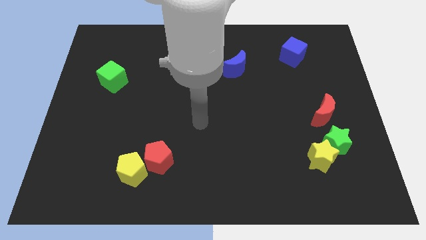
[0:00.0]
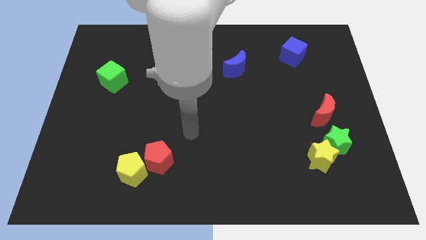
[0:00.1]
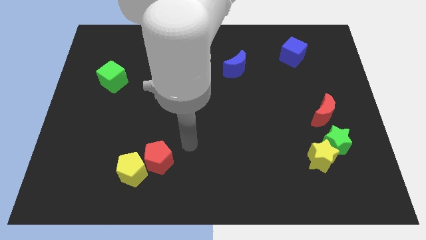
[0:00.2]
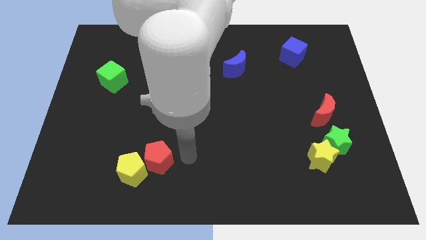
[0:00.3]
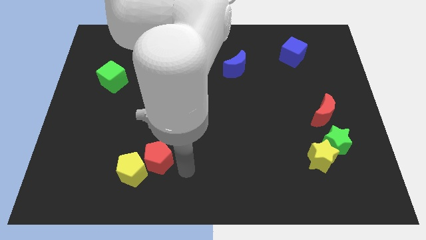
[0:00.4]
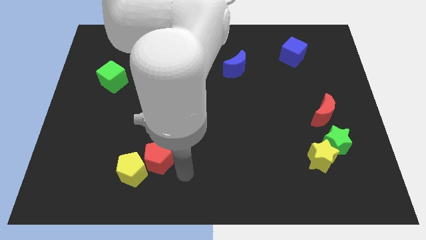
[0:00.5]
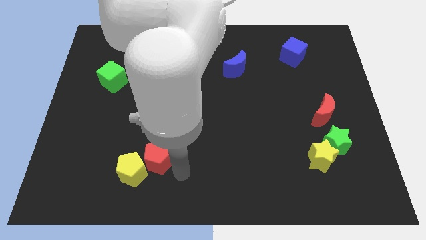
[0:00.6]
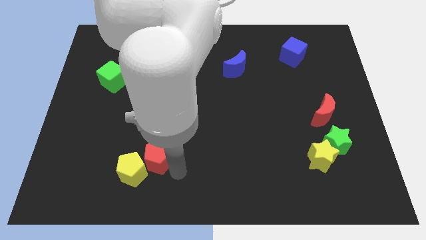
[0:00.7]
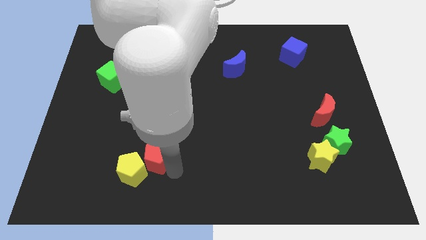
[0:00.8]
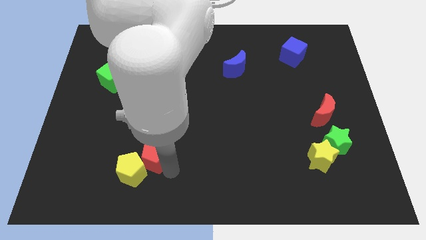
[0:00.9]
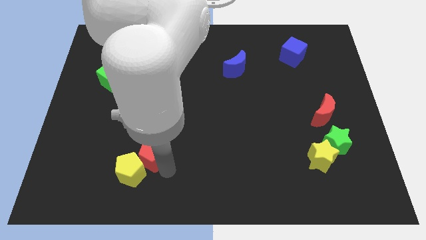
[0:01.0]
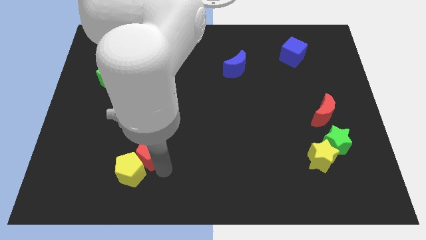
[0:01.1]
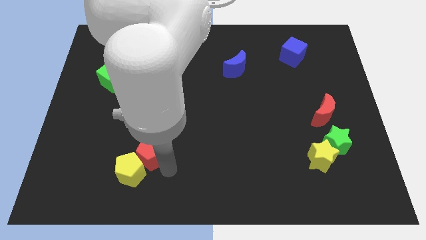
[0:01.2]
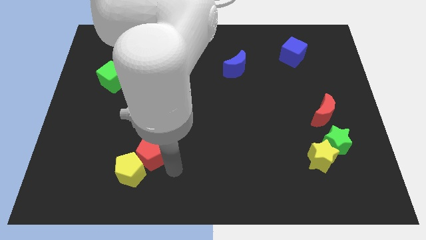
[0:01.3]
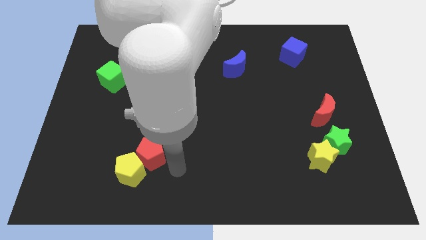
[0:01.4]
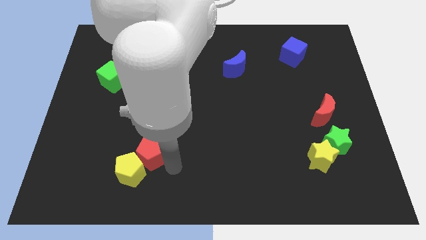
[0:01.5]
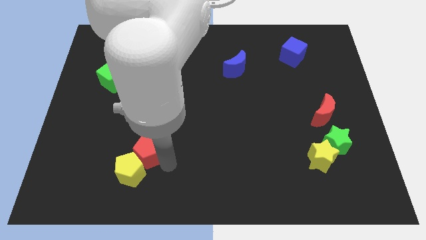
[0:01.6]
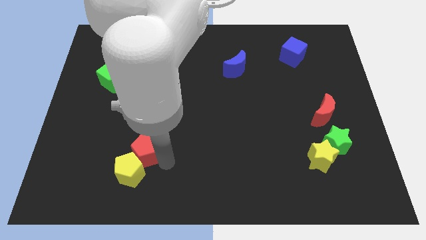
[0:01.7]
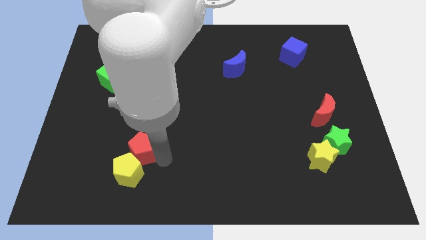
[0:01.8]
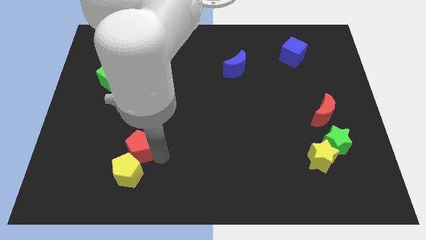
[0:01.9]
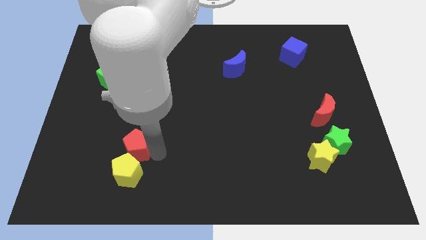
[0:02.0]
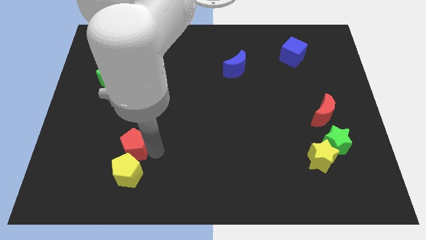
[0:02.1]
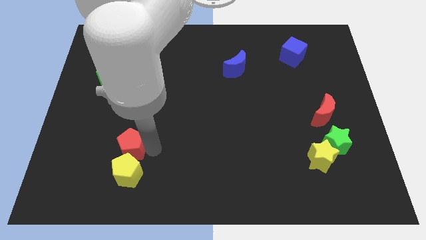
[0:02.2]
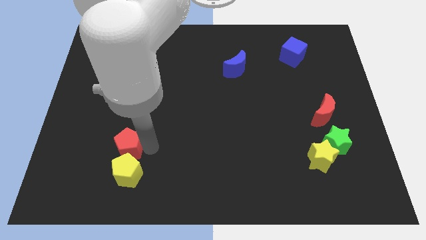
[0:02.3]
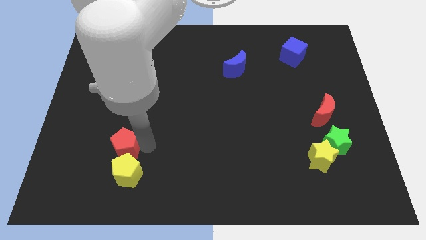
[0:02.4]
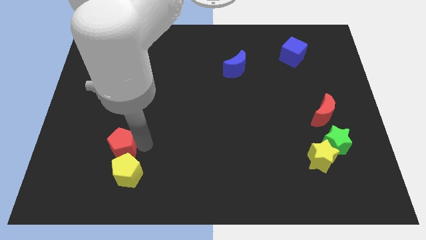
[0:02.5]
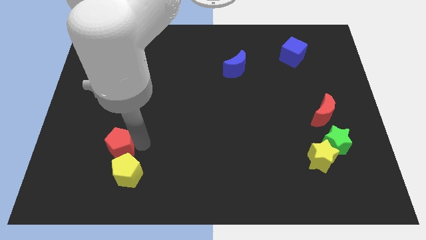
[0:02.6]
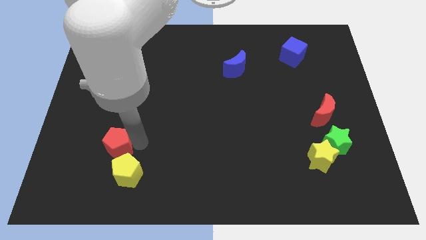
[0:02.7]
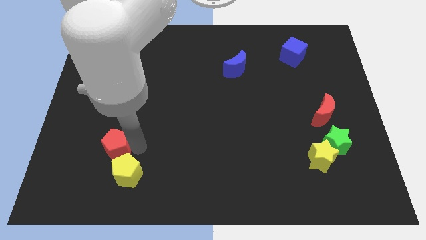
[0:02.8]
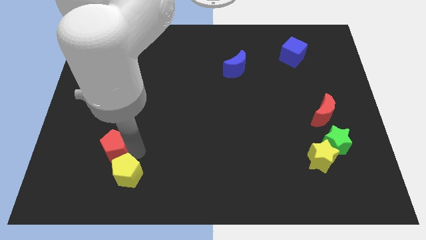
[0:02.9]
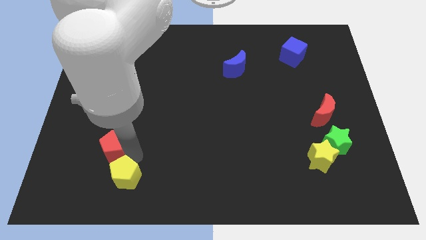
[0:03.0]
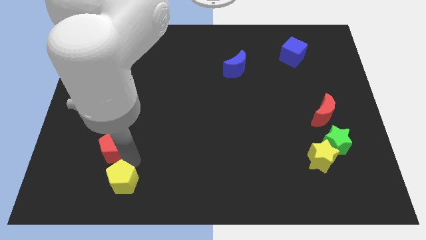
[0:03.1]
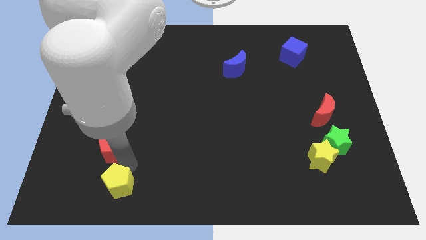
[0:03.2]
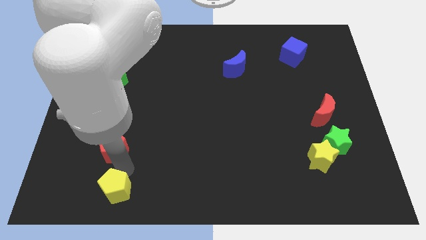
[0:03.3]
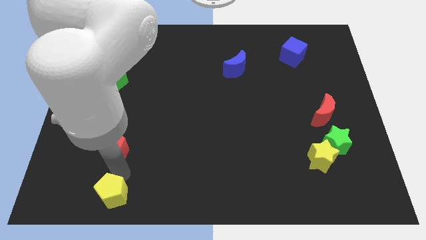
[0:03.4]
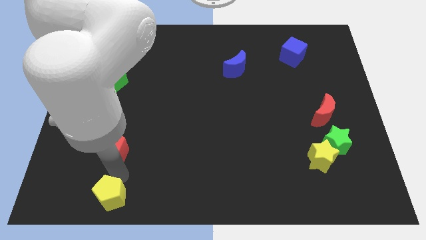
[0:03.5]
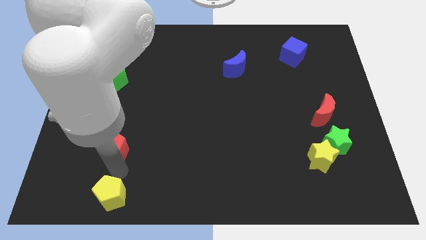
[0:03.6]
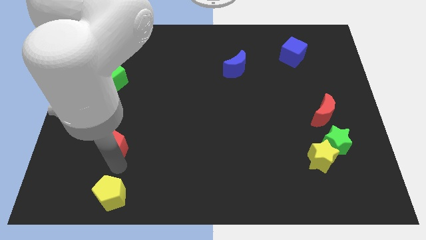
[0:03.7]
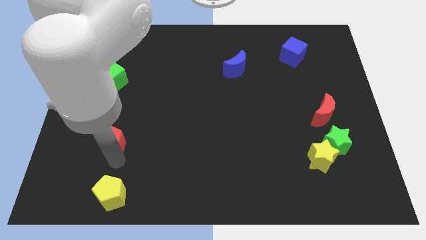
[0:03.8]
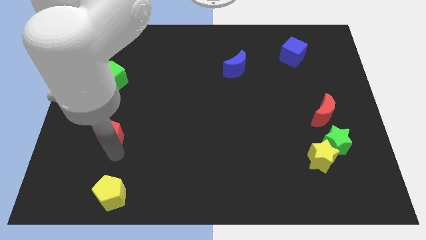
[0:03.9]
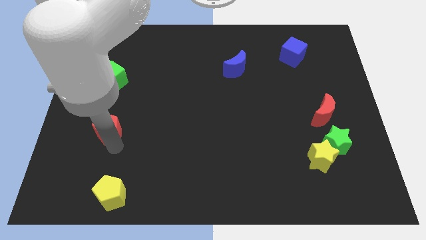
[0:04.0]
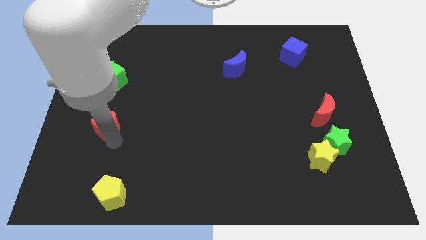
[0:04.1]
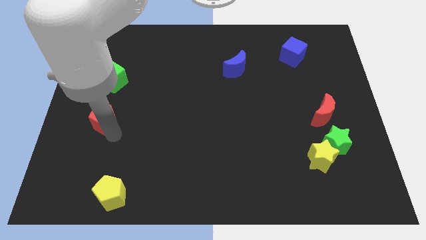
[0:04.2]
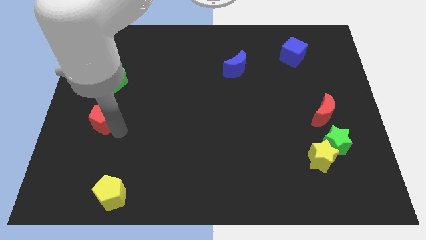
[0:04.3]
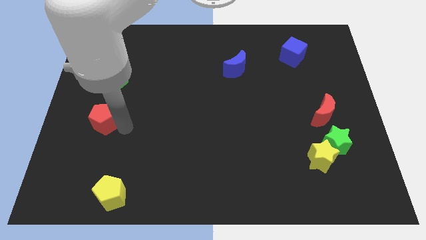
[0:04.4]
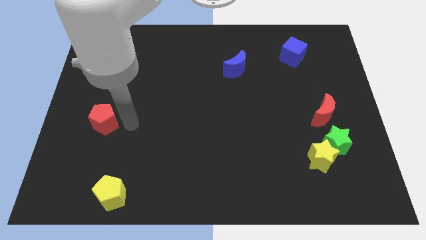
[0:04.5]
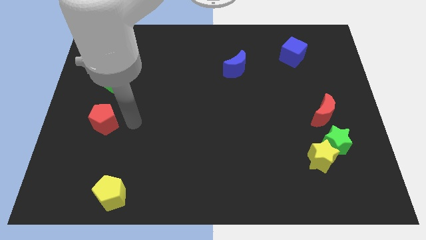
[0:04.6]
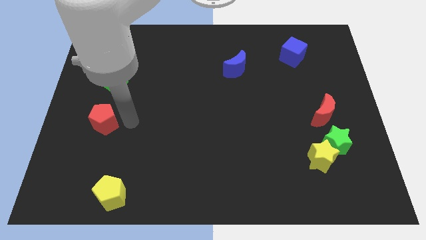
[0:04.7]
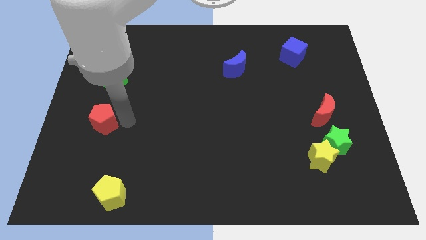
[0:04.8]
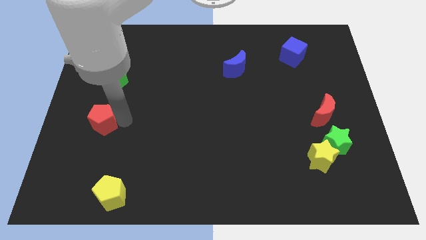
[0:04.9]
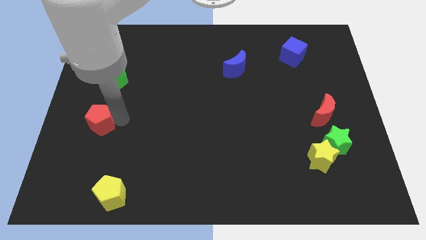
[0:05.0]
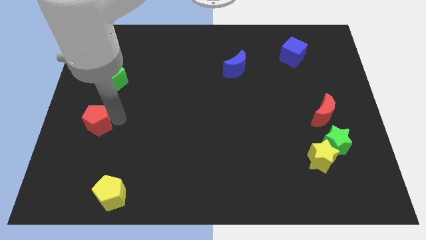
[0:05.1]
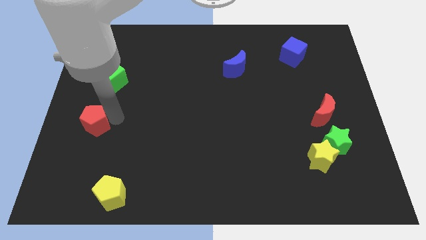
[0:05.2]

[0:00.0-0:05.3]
move the red pentagon to the center left

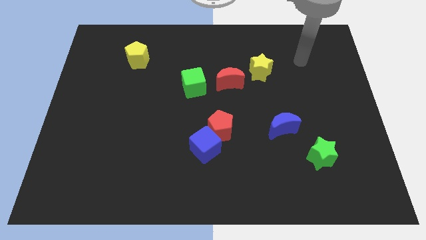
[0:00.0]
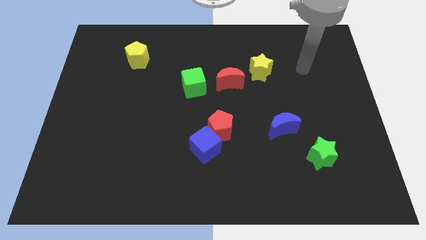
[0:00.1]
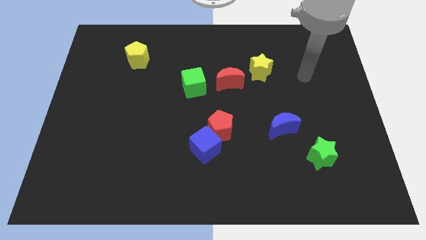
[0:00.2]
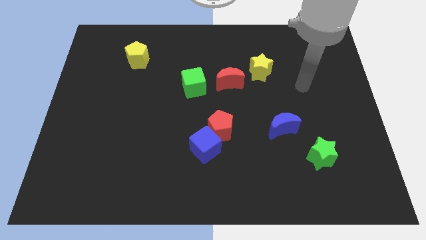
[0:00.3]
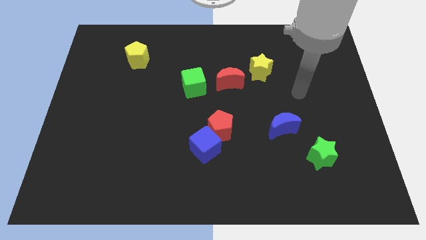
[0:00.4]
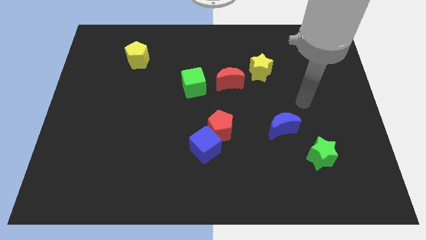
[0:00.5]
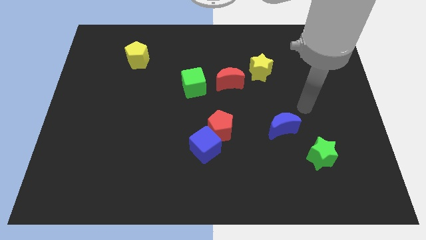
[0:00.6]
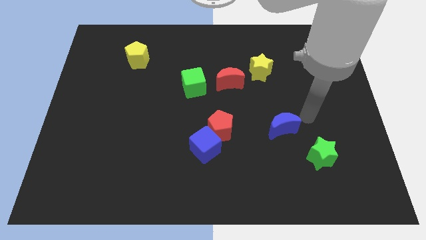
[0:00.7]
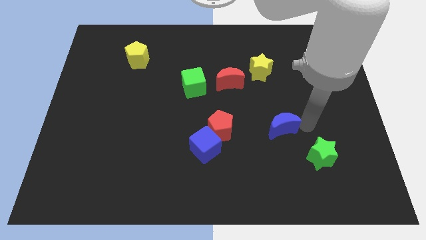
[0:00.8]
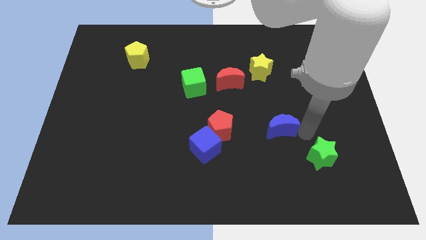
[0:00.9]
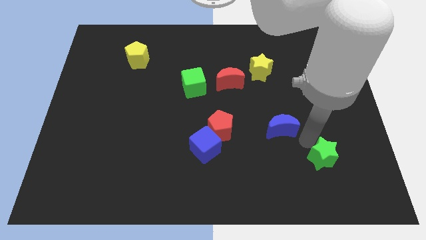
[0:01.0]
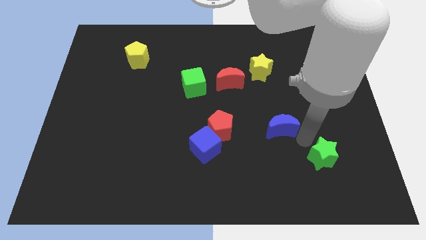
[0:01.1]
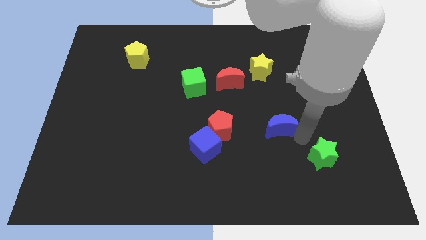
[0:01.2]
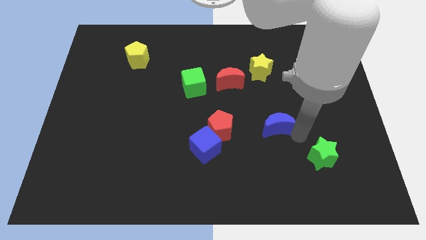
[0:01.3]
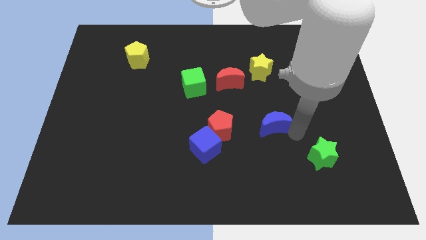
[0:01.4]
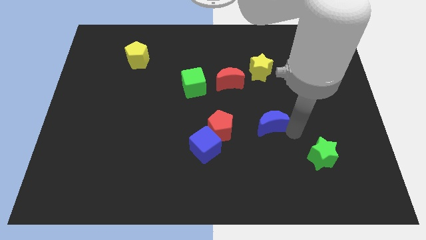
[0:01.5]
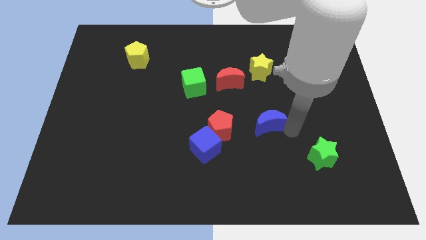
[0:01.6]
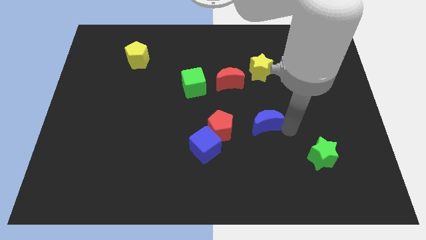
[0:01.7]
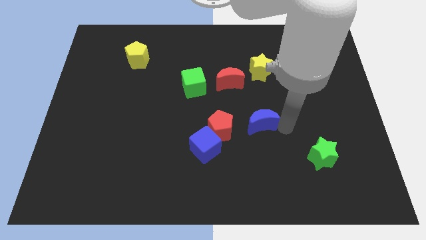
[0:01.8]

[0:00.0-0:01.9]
move the blue moon to the center
